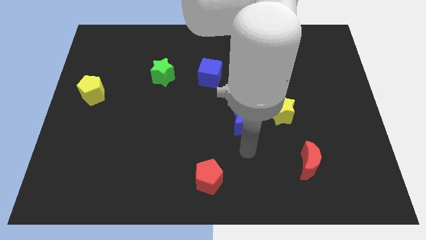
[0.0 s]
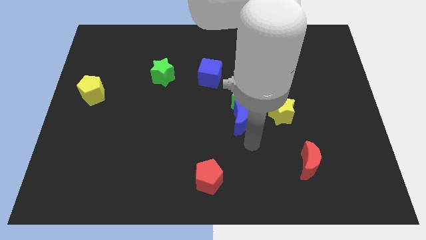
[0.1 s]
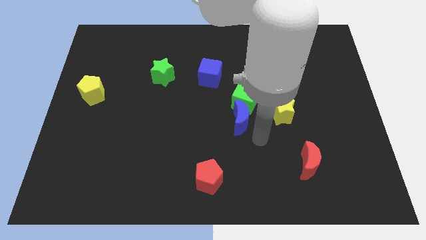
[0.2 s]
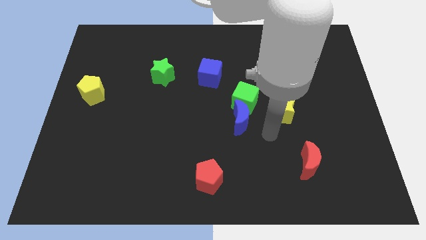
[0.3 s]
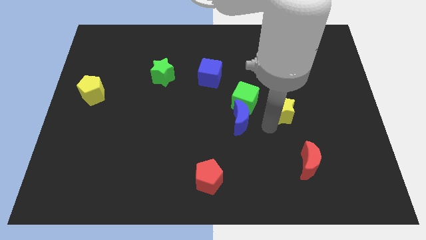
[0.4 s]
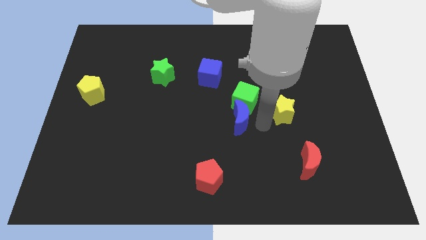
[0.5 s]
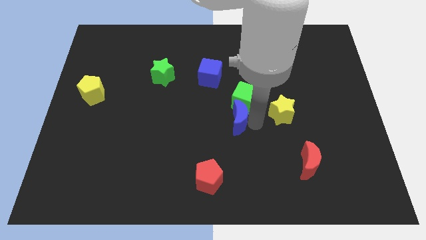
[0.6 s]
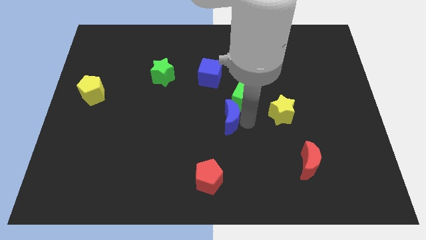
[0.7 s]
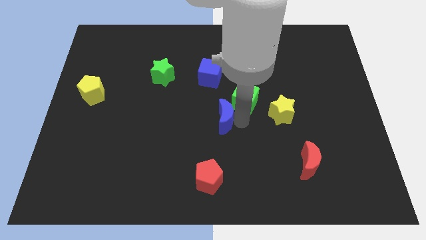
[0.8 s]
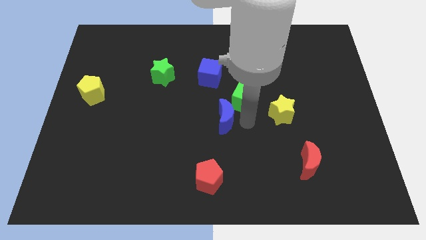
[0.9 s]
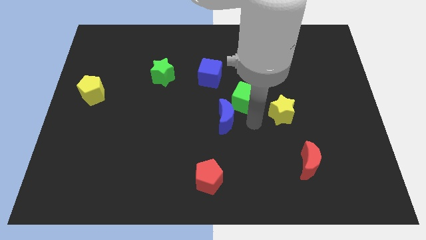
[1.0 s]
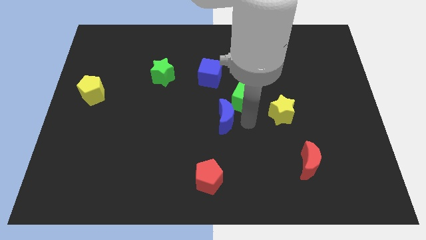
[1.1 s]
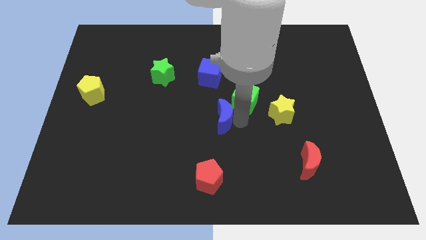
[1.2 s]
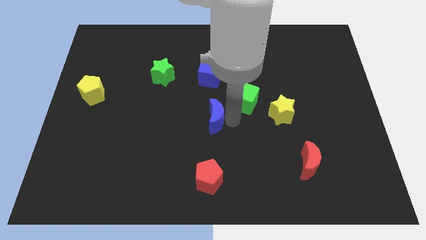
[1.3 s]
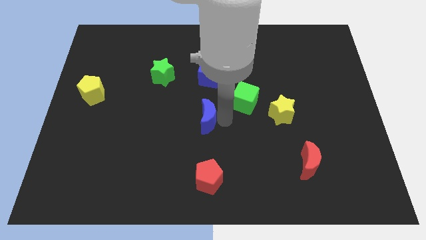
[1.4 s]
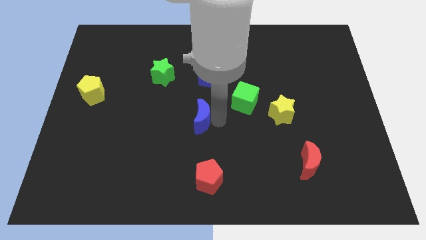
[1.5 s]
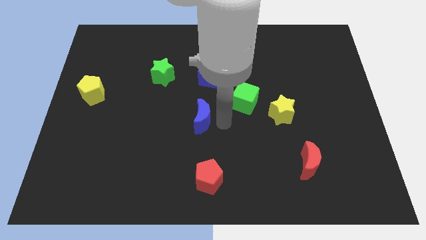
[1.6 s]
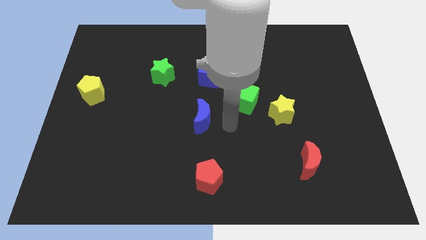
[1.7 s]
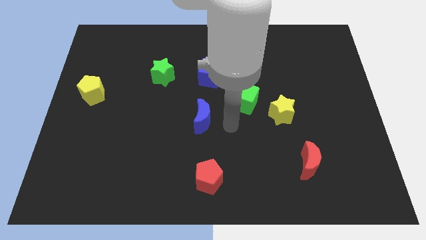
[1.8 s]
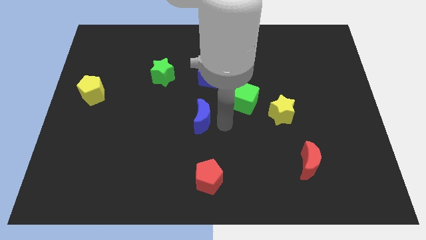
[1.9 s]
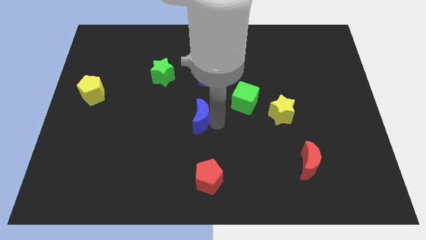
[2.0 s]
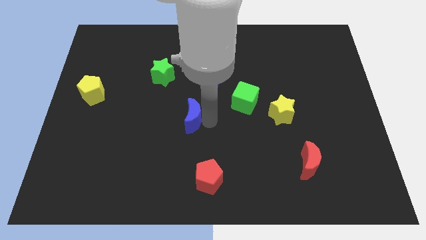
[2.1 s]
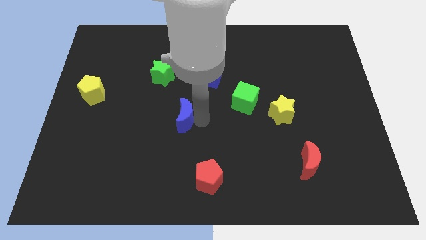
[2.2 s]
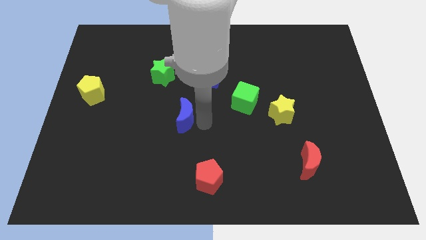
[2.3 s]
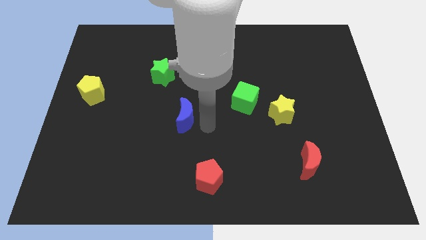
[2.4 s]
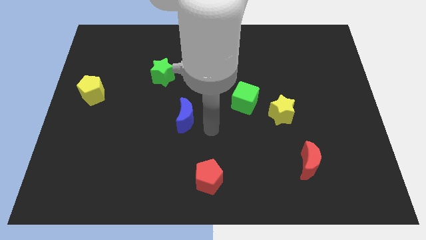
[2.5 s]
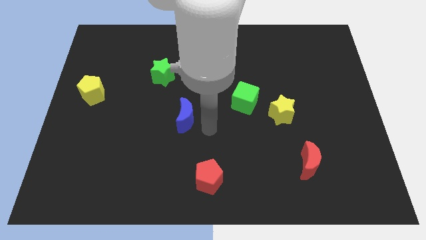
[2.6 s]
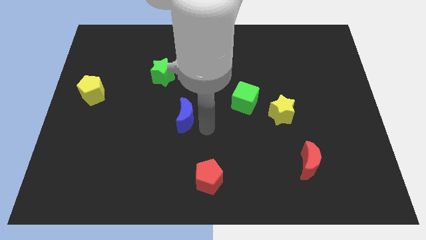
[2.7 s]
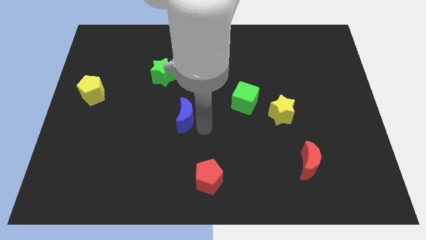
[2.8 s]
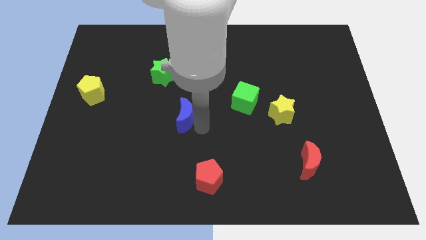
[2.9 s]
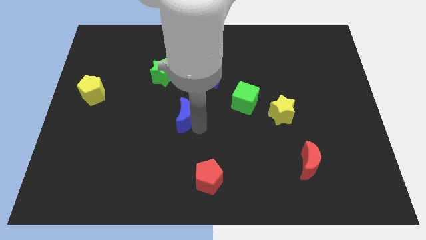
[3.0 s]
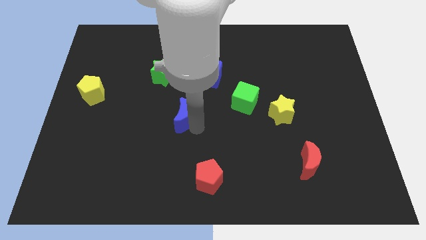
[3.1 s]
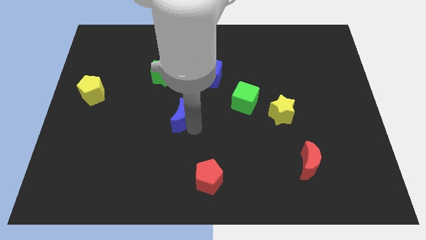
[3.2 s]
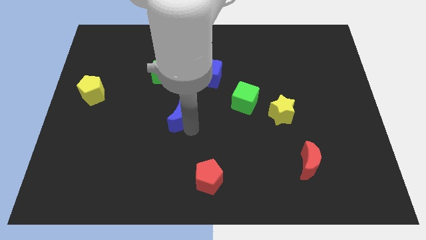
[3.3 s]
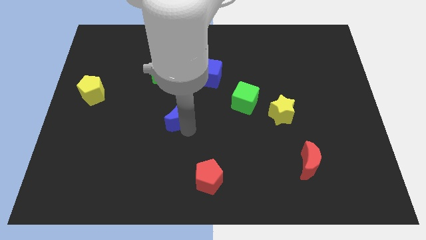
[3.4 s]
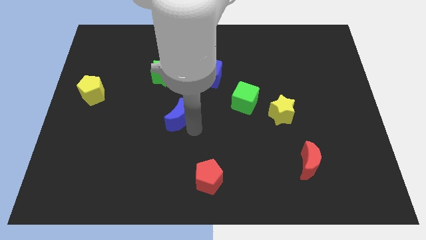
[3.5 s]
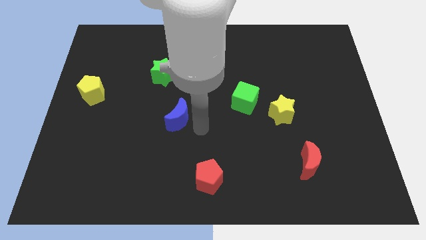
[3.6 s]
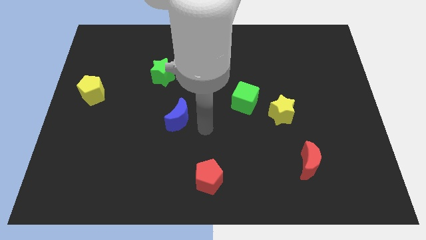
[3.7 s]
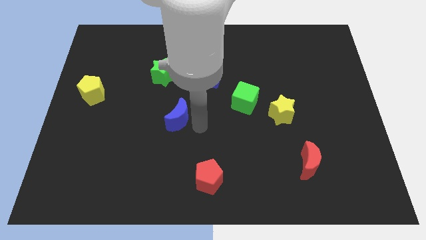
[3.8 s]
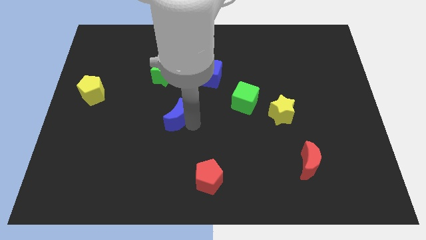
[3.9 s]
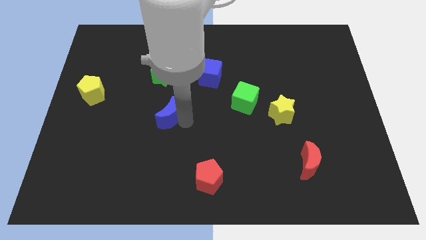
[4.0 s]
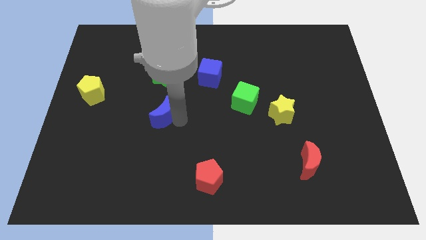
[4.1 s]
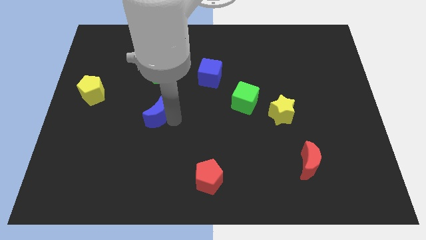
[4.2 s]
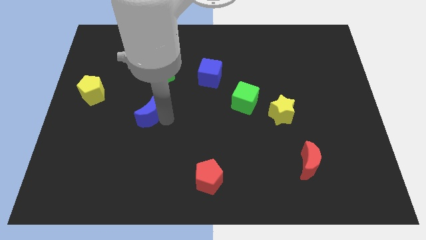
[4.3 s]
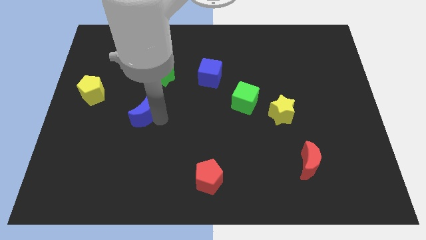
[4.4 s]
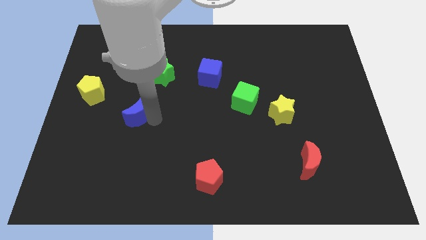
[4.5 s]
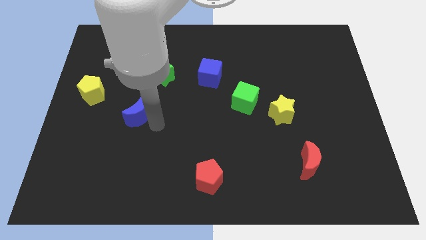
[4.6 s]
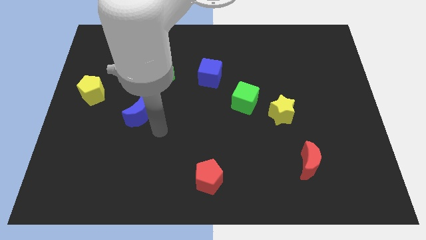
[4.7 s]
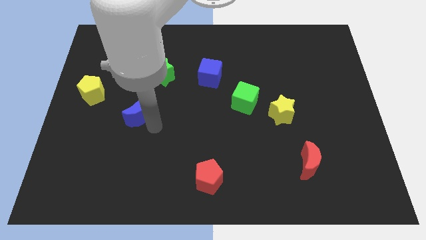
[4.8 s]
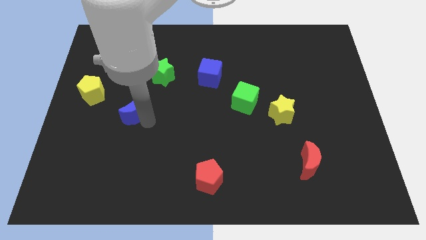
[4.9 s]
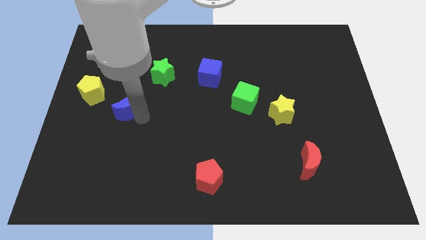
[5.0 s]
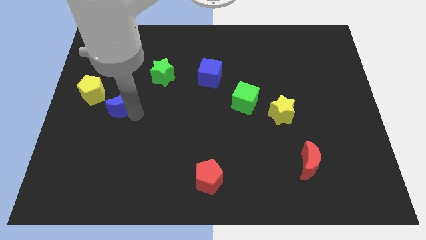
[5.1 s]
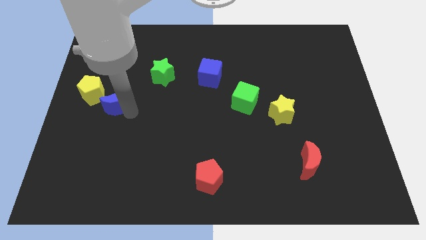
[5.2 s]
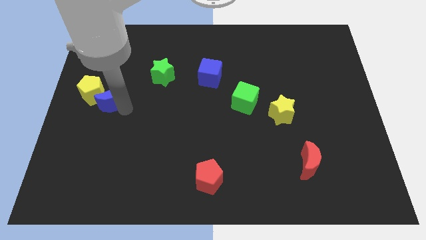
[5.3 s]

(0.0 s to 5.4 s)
push the blue moon next to the yellow pentagon

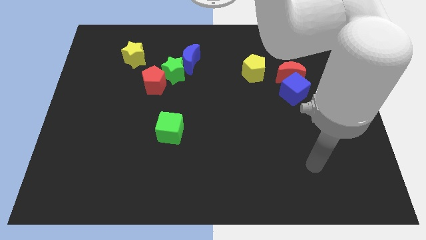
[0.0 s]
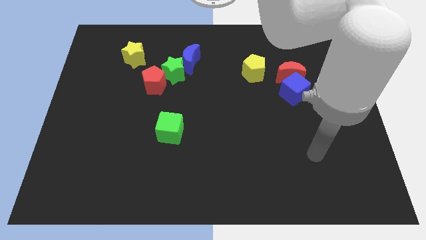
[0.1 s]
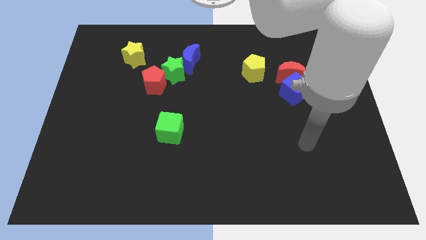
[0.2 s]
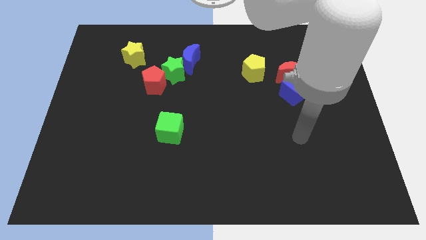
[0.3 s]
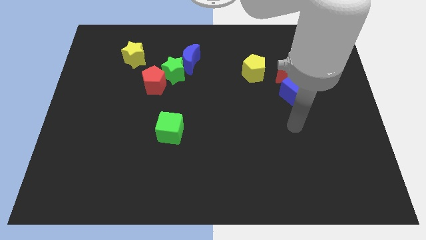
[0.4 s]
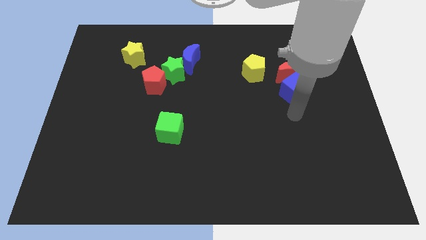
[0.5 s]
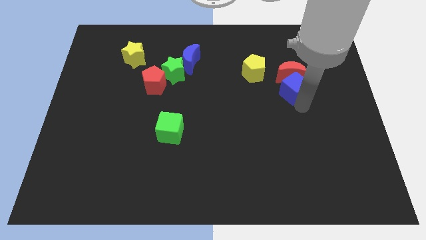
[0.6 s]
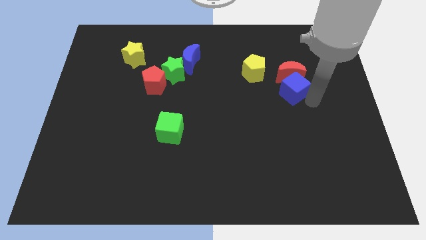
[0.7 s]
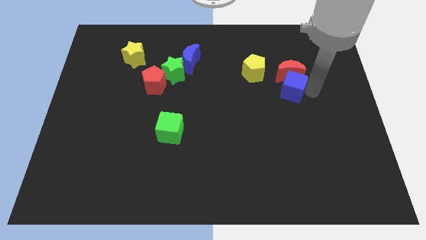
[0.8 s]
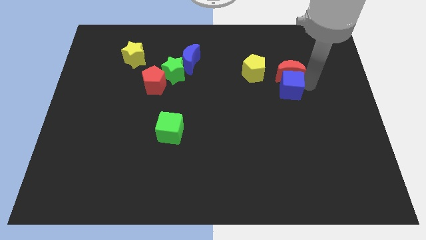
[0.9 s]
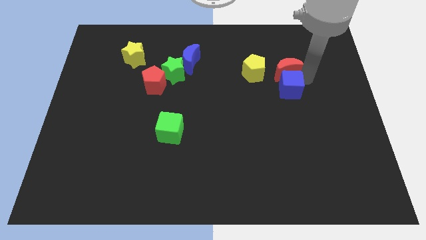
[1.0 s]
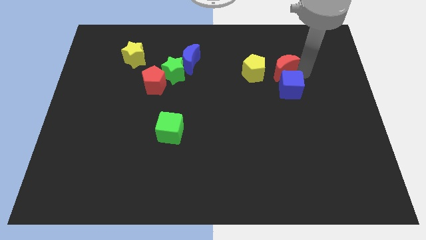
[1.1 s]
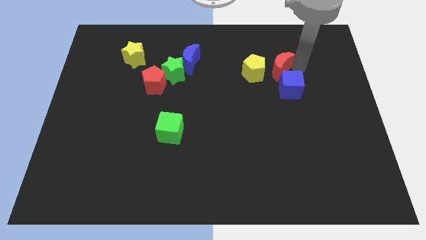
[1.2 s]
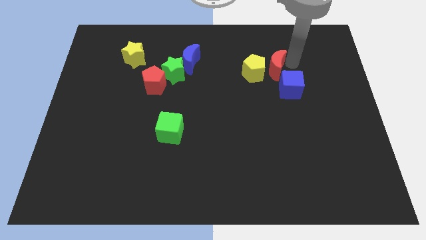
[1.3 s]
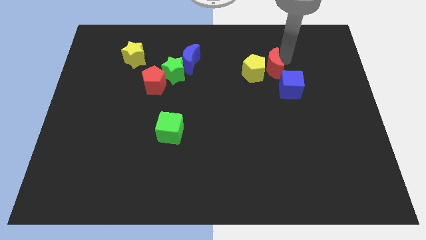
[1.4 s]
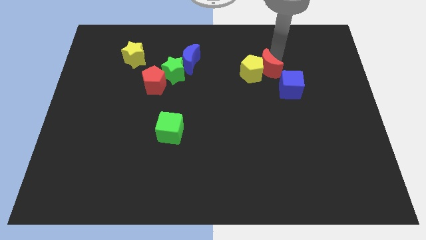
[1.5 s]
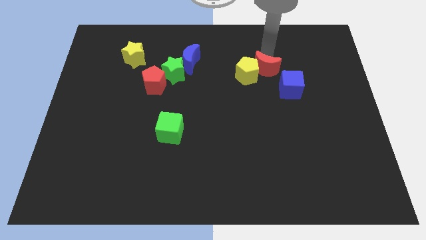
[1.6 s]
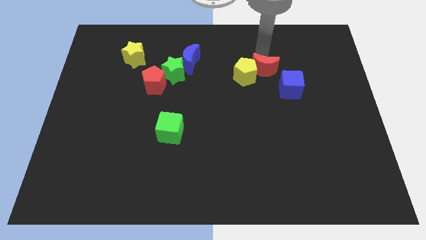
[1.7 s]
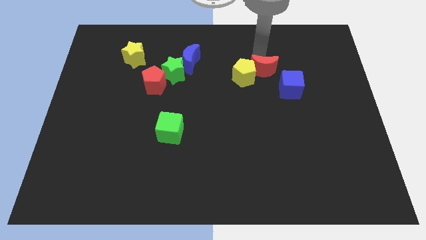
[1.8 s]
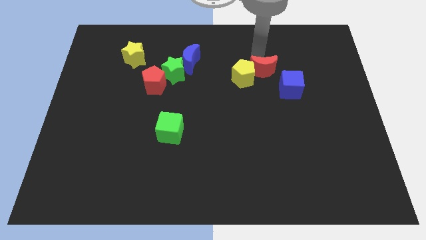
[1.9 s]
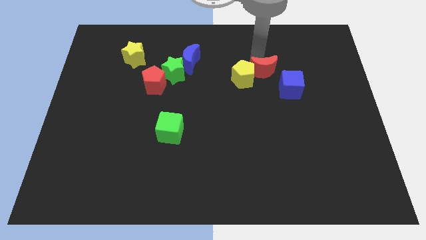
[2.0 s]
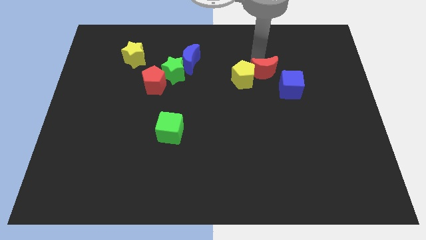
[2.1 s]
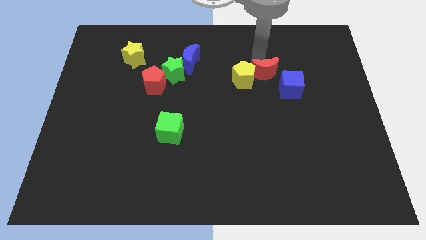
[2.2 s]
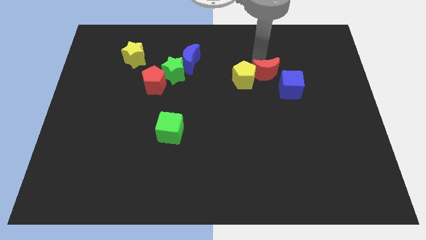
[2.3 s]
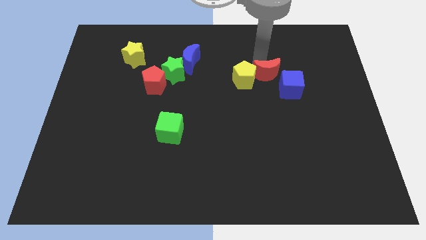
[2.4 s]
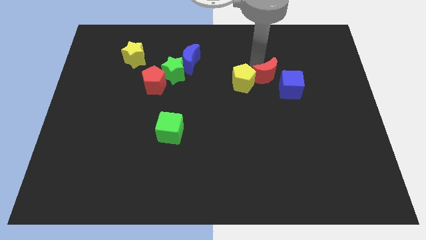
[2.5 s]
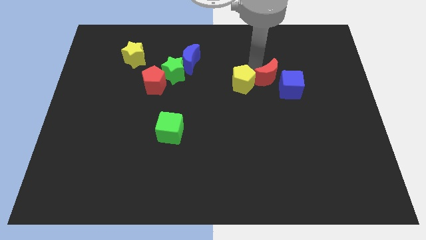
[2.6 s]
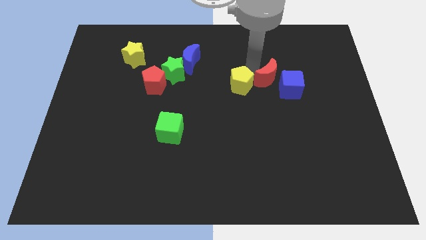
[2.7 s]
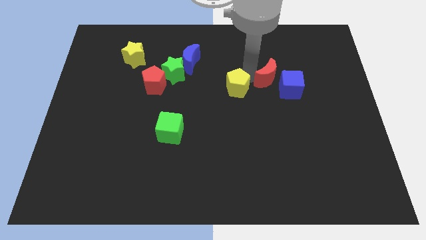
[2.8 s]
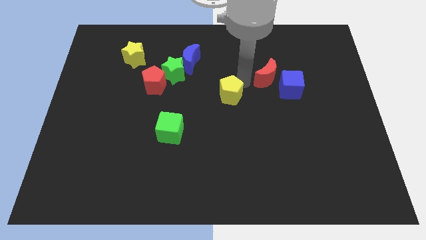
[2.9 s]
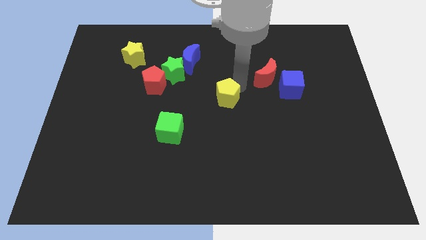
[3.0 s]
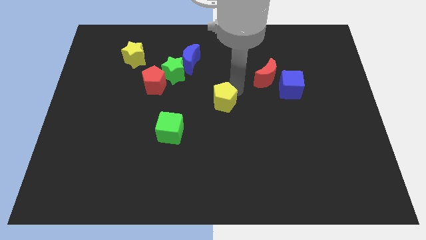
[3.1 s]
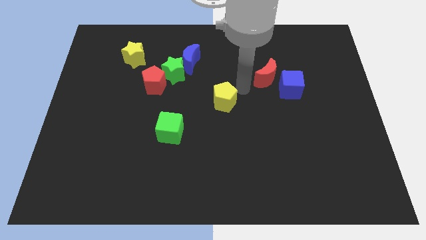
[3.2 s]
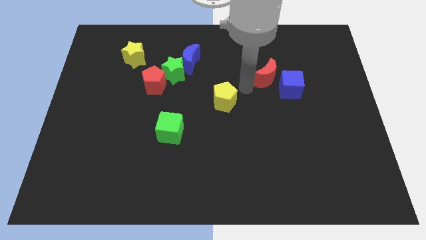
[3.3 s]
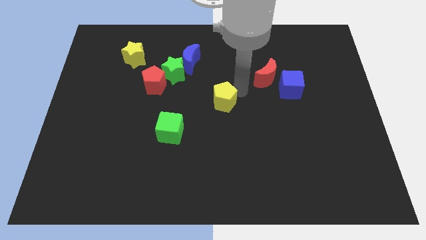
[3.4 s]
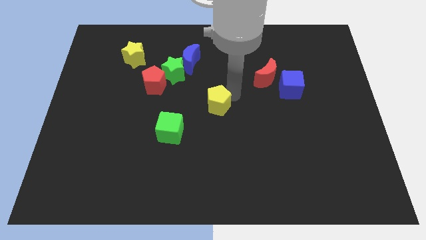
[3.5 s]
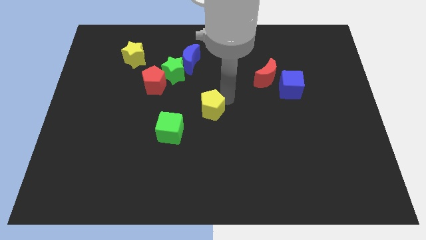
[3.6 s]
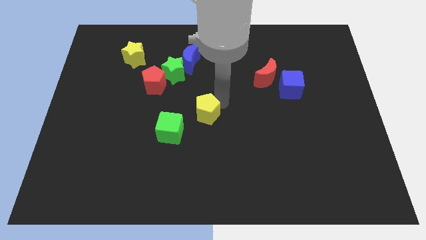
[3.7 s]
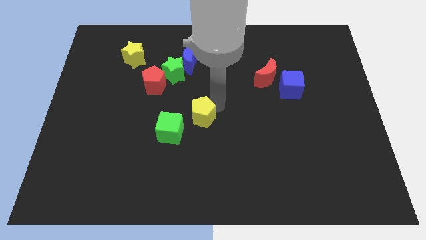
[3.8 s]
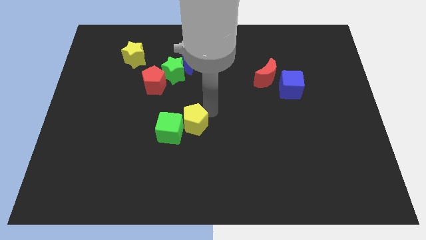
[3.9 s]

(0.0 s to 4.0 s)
slide the yellow pentagon to the green cube
